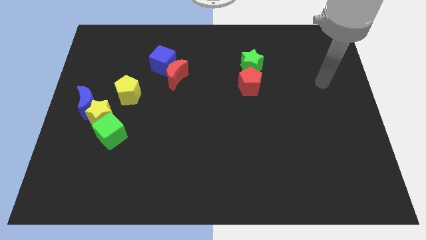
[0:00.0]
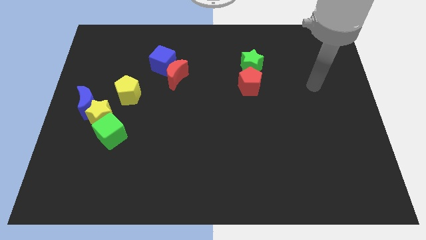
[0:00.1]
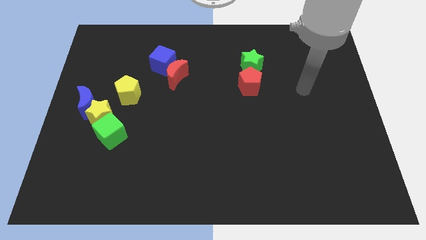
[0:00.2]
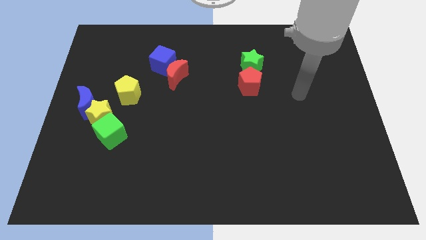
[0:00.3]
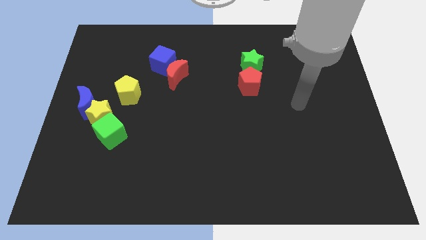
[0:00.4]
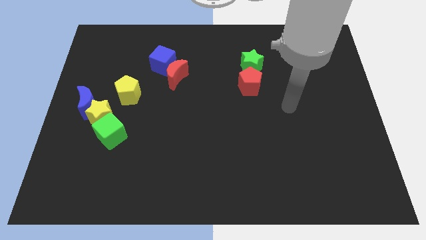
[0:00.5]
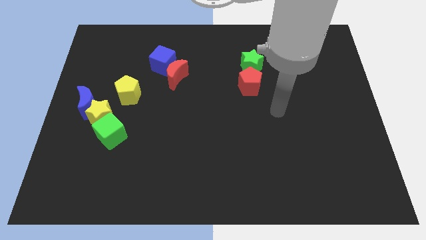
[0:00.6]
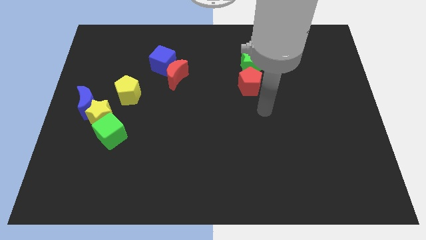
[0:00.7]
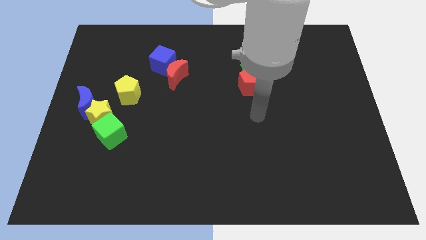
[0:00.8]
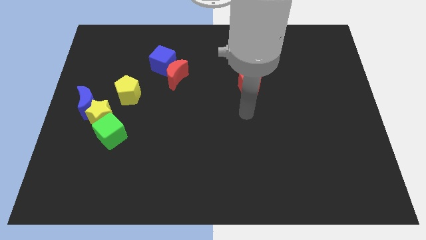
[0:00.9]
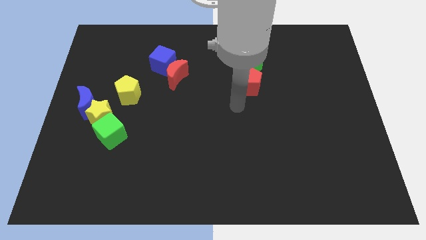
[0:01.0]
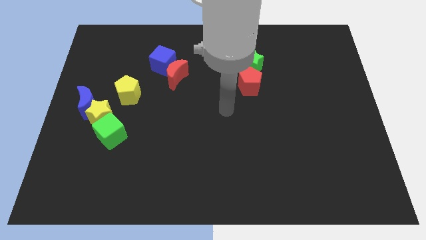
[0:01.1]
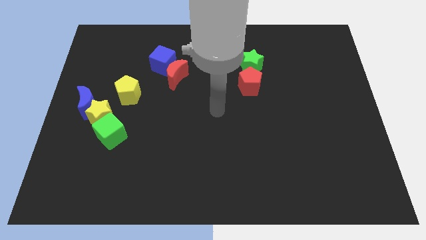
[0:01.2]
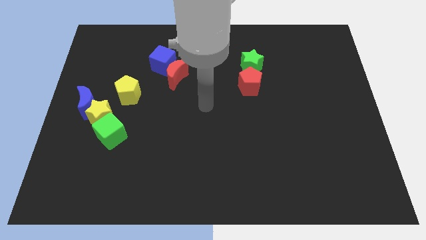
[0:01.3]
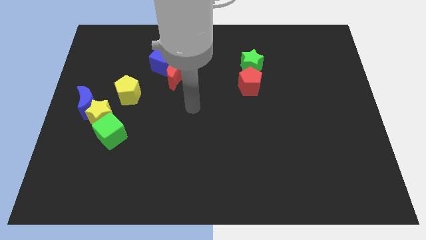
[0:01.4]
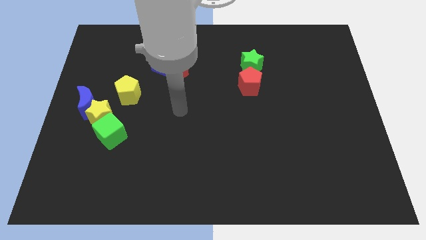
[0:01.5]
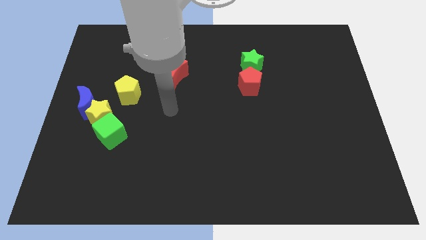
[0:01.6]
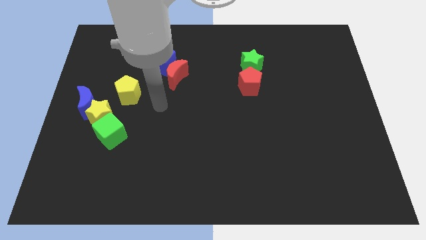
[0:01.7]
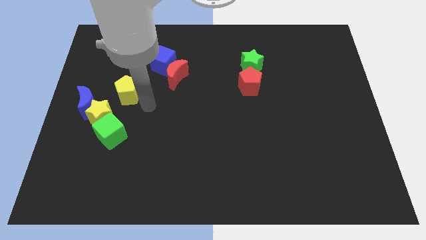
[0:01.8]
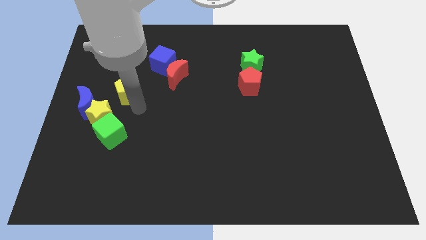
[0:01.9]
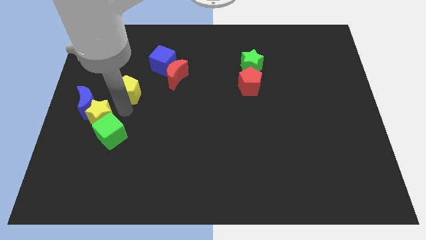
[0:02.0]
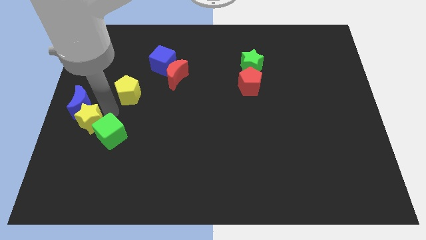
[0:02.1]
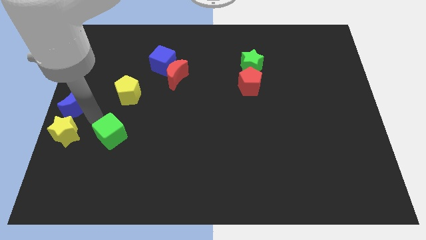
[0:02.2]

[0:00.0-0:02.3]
pull the green cube apart from the yellow star

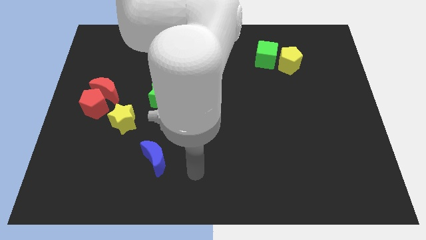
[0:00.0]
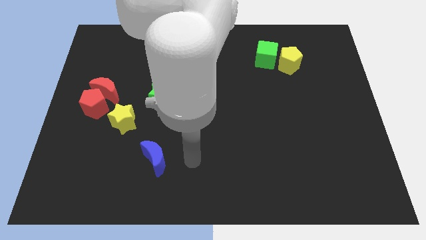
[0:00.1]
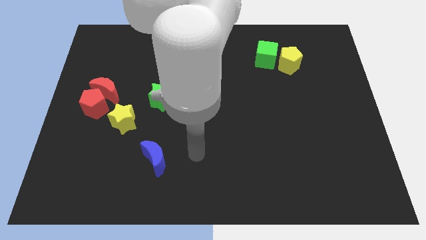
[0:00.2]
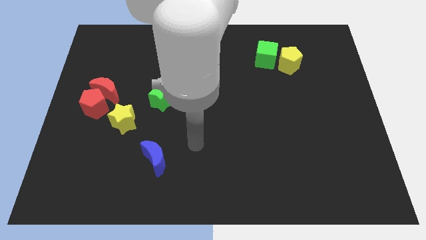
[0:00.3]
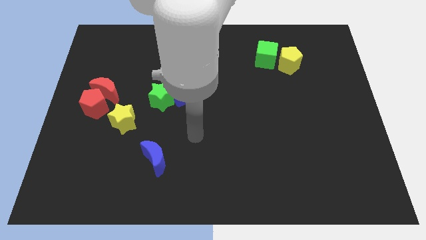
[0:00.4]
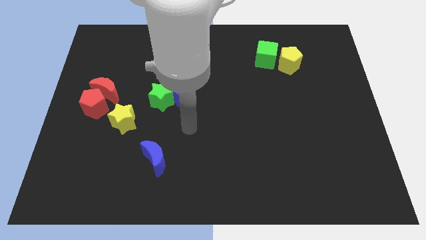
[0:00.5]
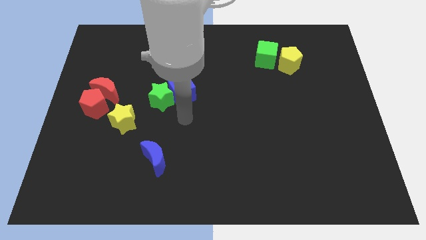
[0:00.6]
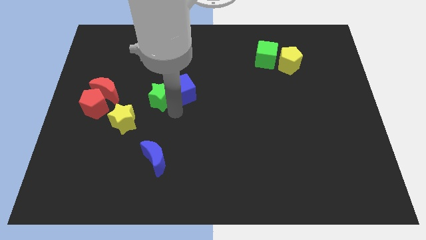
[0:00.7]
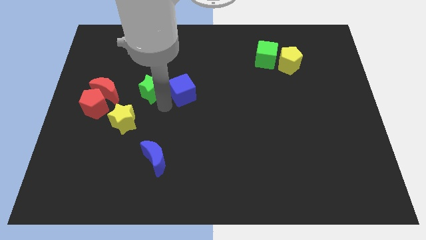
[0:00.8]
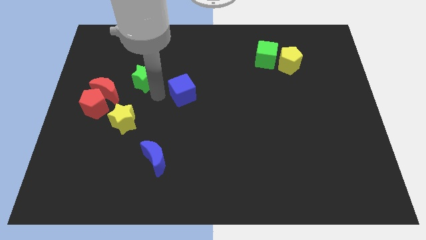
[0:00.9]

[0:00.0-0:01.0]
move the blue cube away from the green star

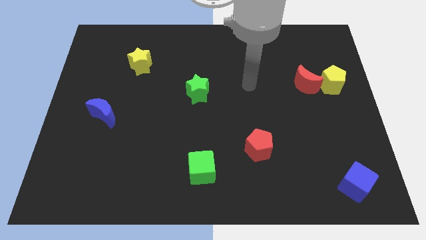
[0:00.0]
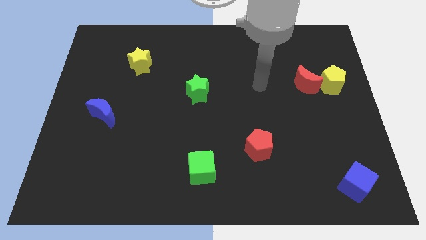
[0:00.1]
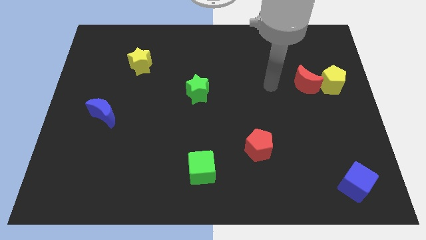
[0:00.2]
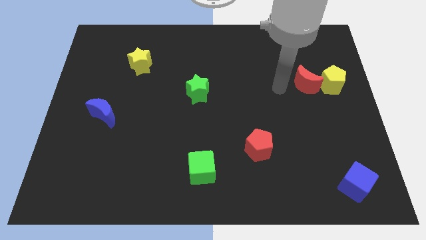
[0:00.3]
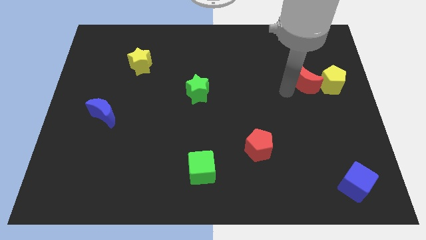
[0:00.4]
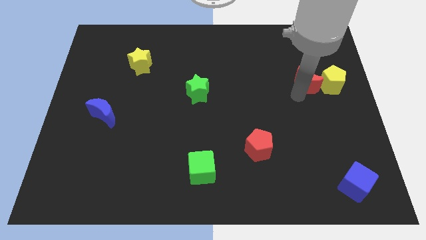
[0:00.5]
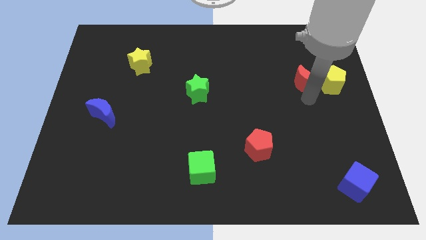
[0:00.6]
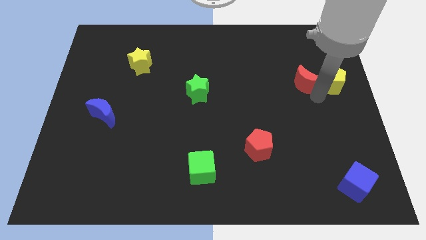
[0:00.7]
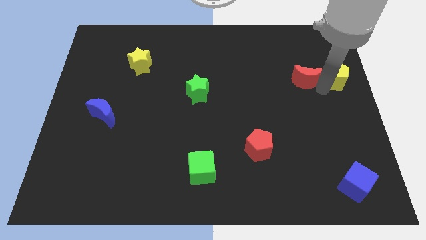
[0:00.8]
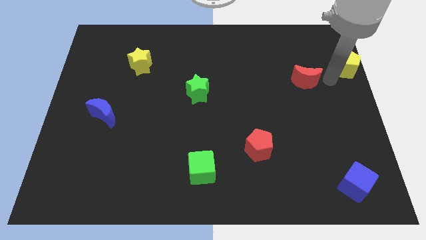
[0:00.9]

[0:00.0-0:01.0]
separate the red moon from the yellow pentagon

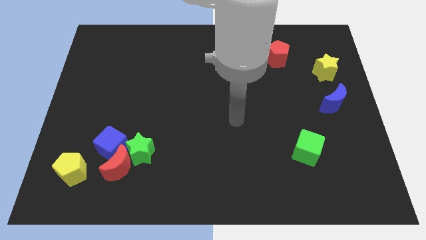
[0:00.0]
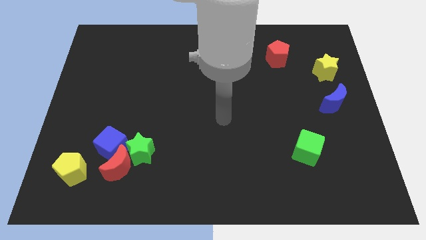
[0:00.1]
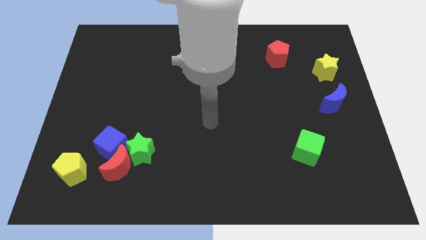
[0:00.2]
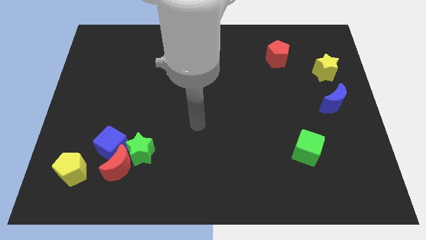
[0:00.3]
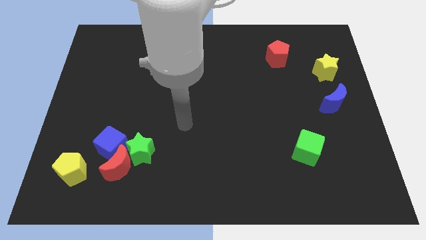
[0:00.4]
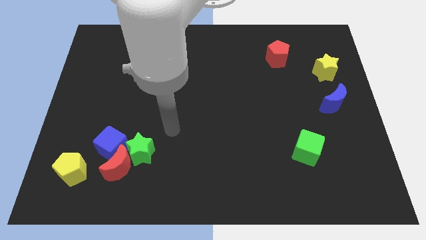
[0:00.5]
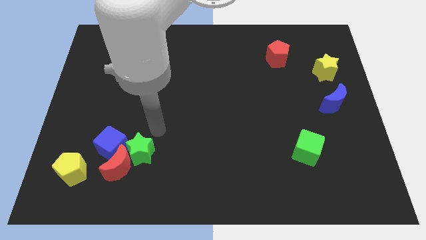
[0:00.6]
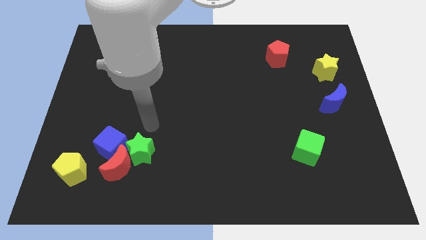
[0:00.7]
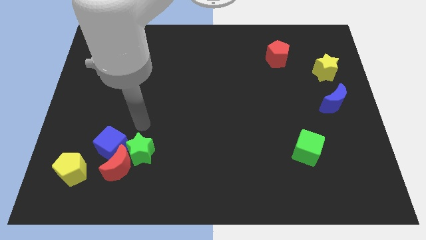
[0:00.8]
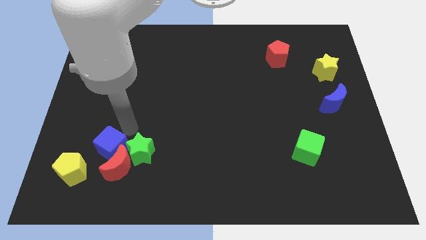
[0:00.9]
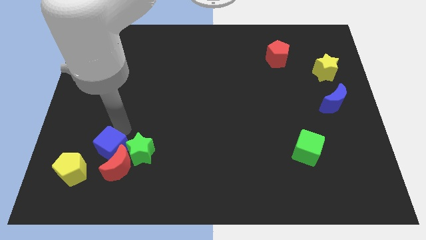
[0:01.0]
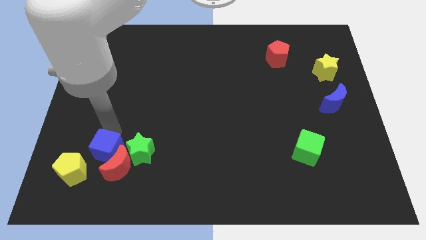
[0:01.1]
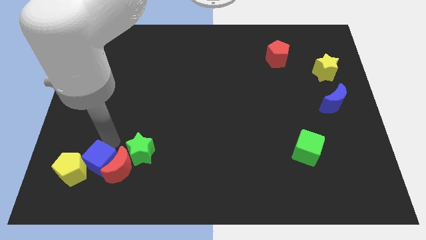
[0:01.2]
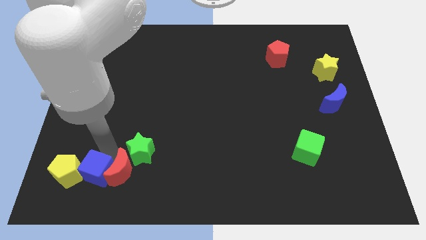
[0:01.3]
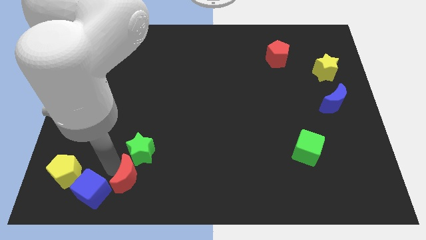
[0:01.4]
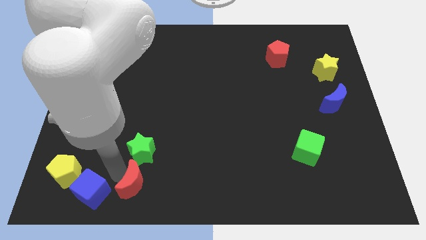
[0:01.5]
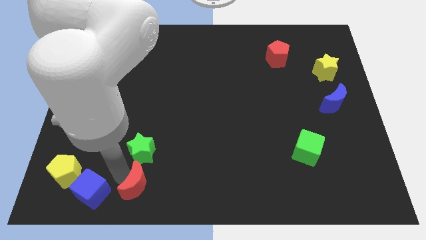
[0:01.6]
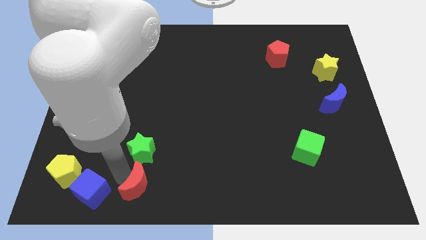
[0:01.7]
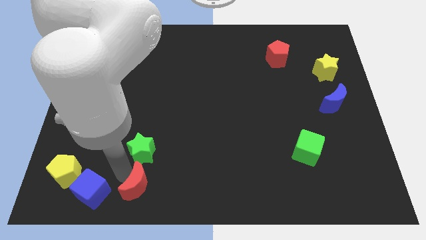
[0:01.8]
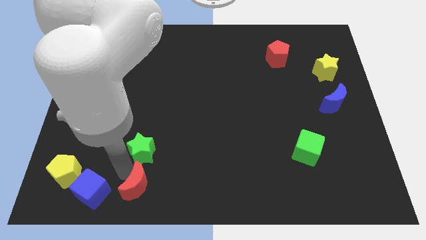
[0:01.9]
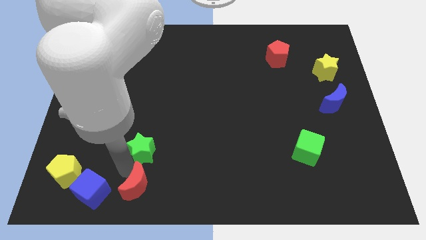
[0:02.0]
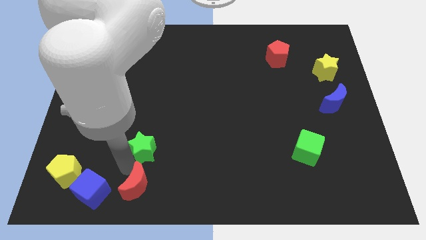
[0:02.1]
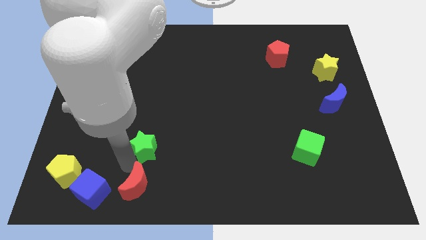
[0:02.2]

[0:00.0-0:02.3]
separate the green star from the red moon and blue cube

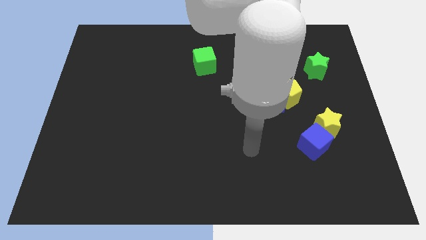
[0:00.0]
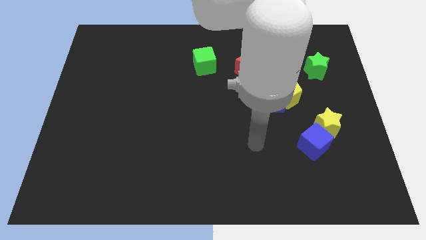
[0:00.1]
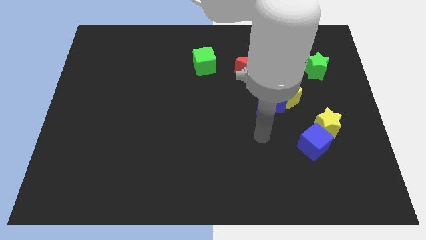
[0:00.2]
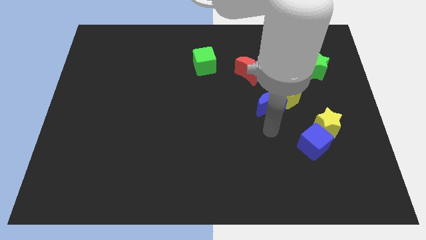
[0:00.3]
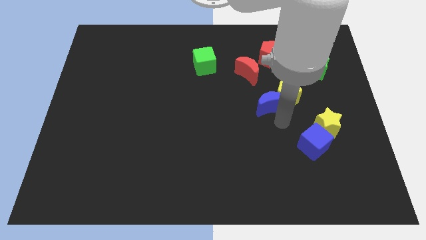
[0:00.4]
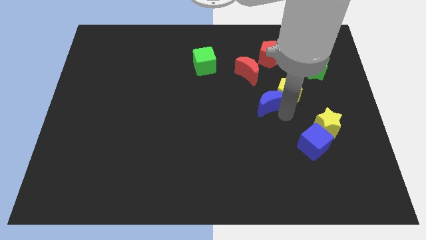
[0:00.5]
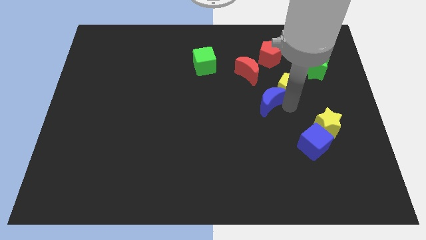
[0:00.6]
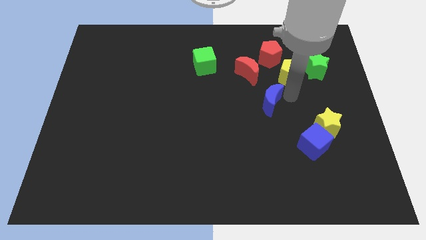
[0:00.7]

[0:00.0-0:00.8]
move the blue moon away from the yellow pentagon

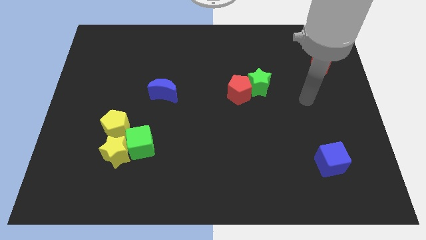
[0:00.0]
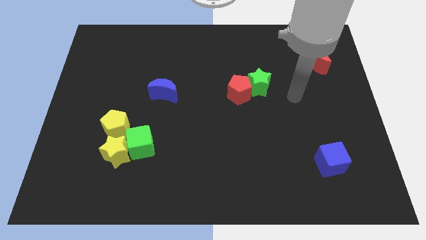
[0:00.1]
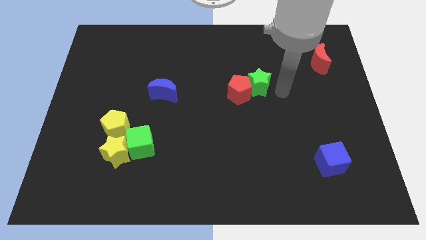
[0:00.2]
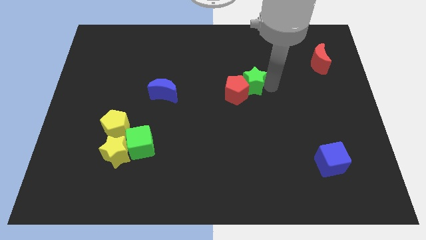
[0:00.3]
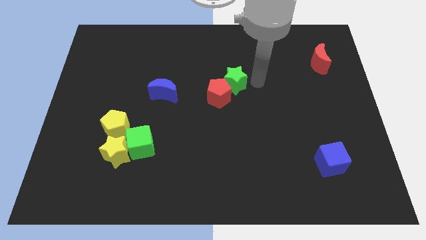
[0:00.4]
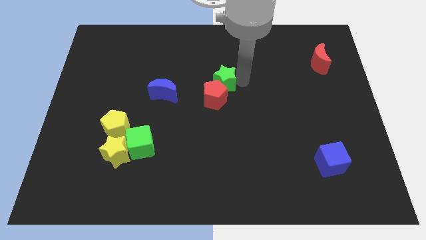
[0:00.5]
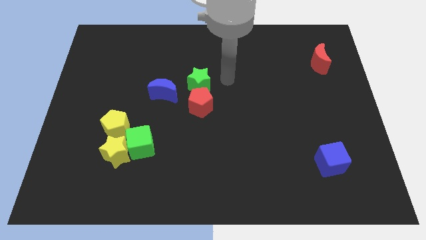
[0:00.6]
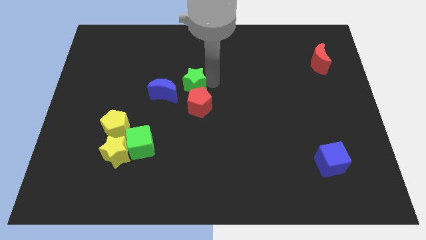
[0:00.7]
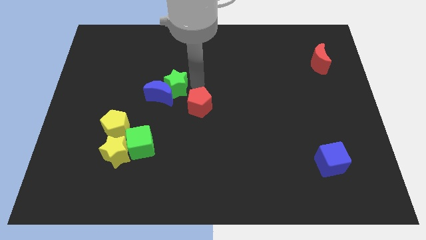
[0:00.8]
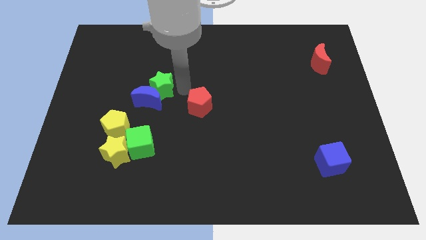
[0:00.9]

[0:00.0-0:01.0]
pull the red pentagon apart from the green star

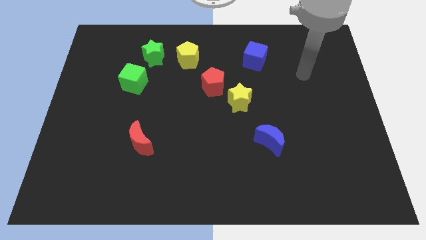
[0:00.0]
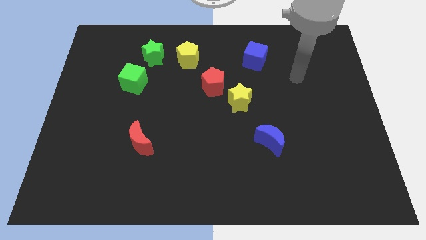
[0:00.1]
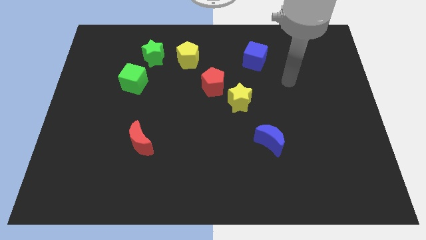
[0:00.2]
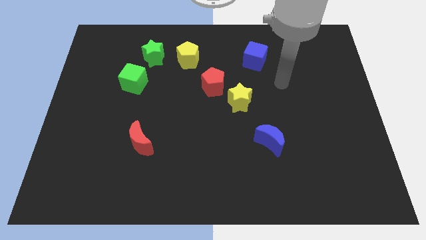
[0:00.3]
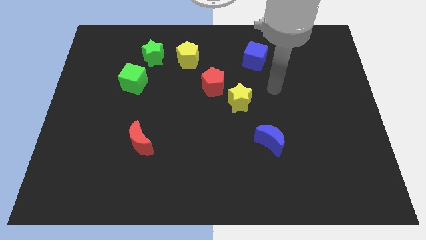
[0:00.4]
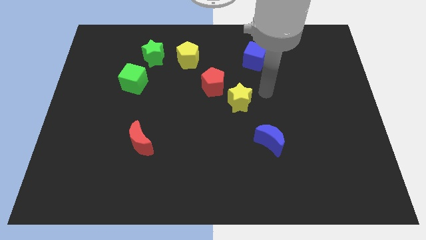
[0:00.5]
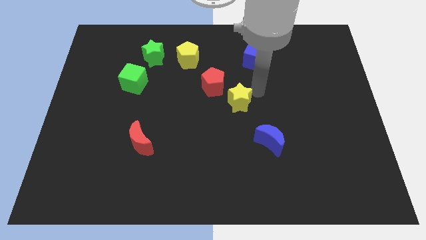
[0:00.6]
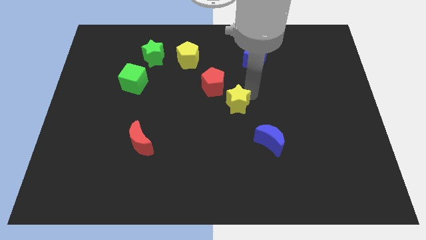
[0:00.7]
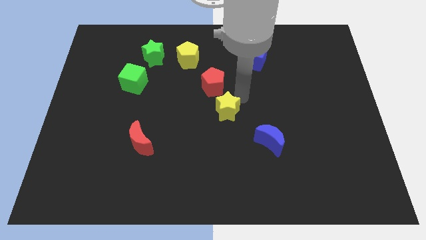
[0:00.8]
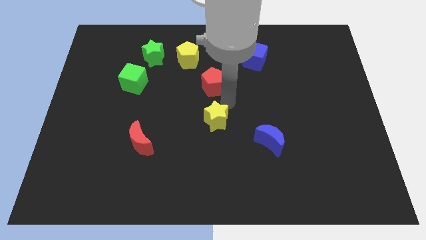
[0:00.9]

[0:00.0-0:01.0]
move the red pentagon away from the yellow star
